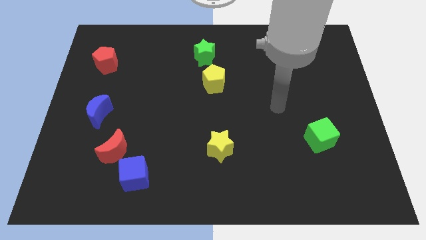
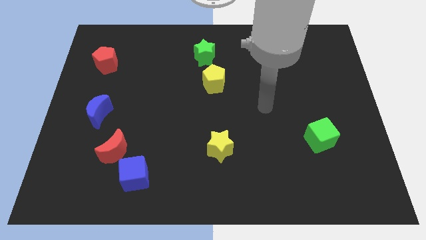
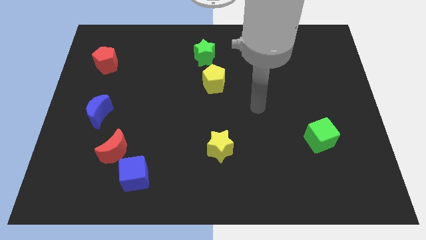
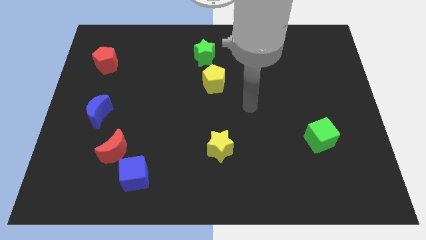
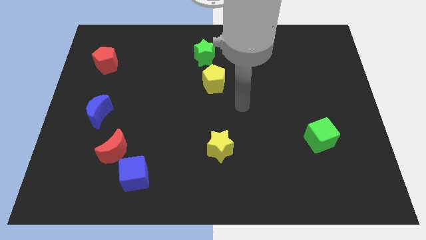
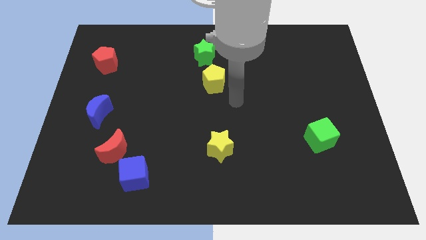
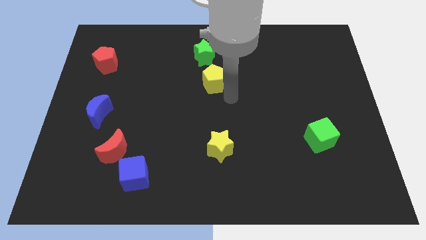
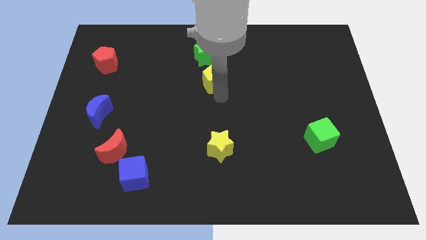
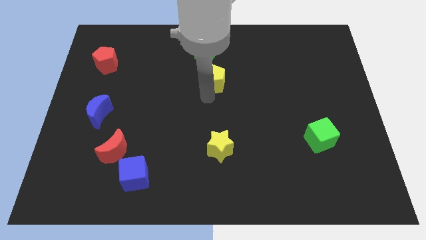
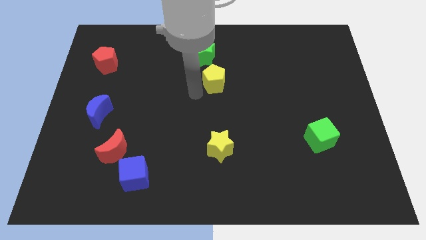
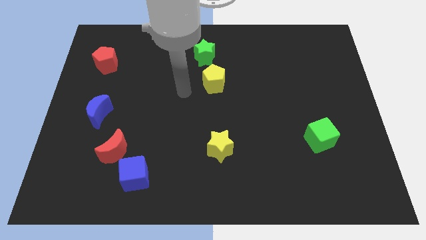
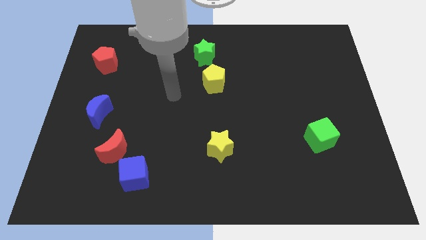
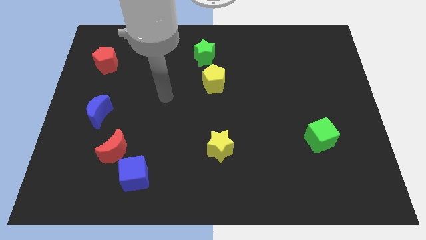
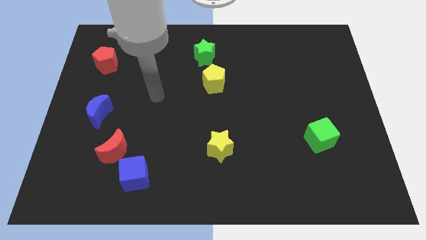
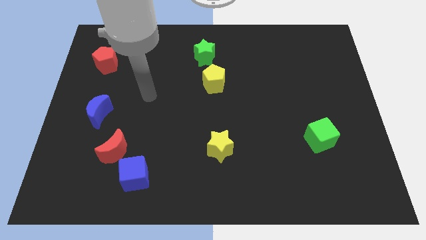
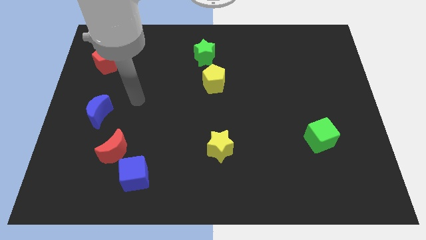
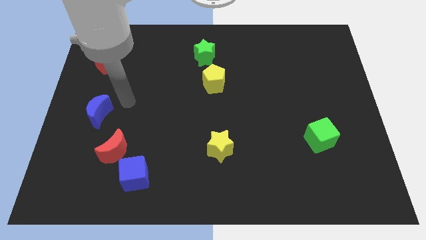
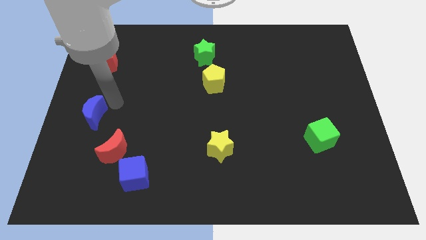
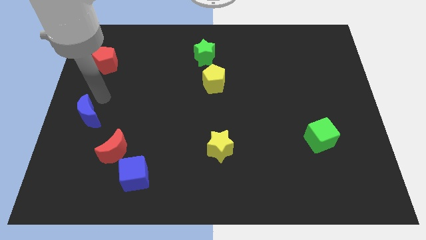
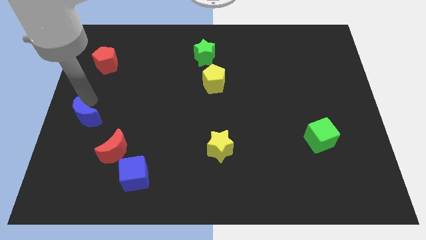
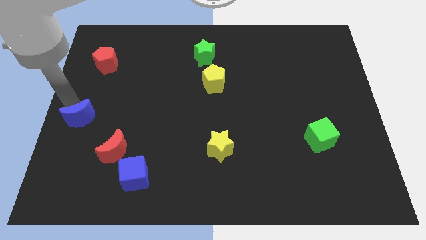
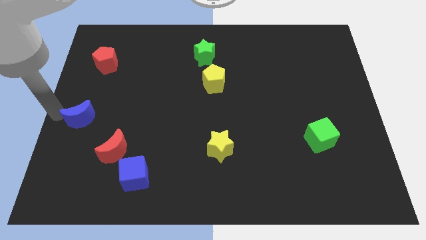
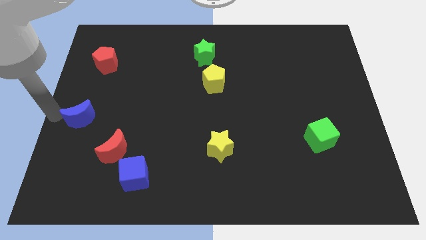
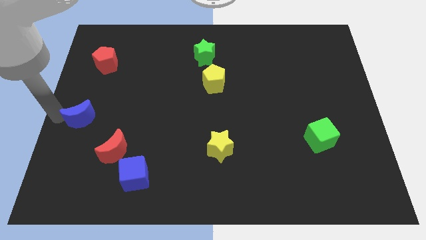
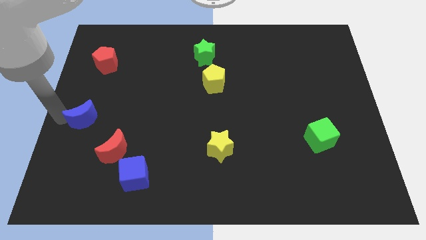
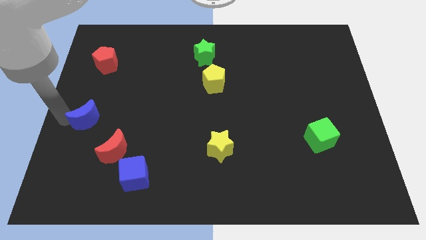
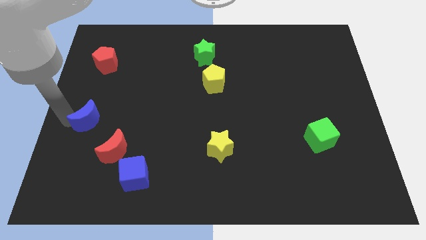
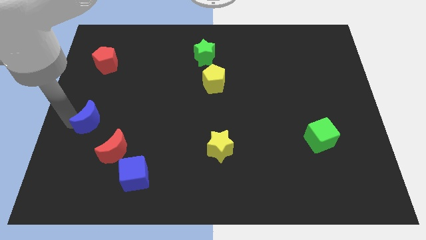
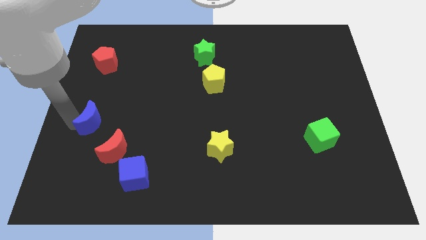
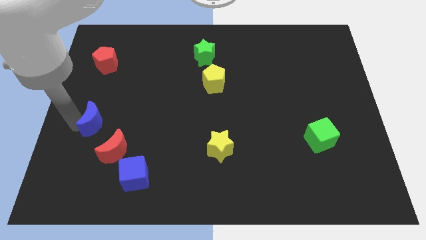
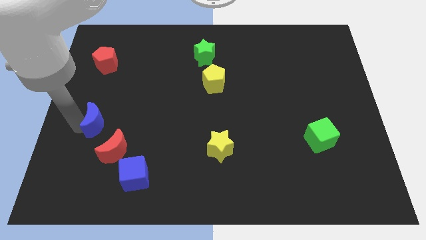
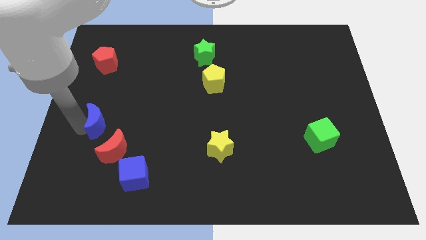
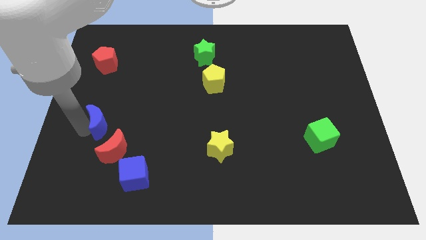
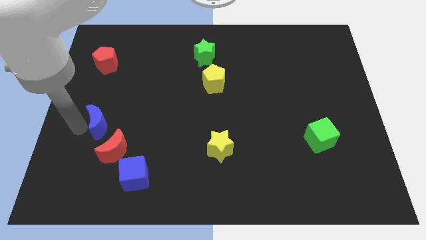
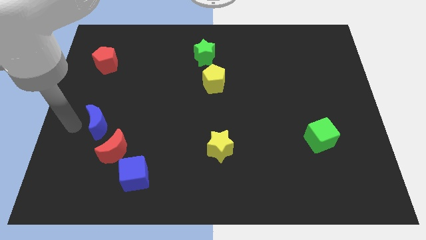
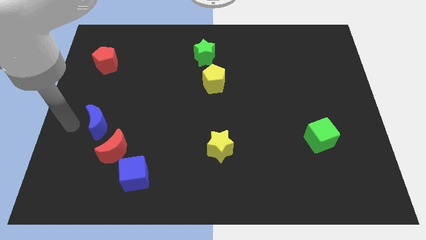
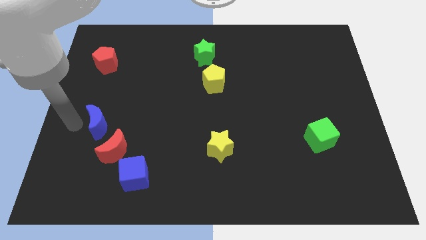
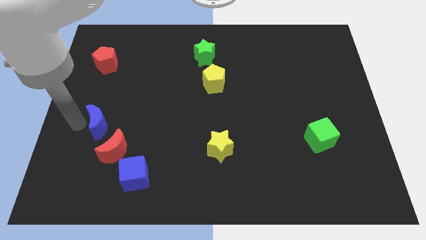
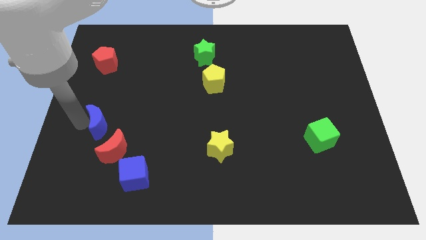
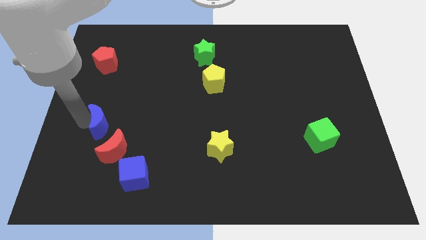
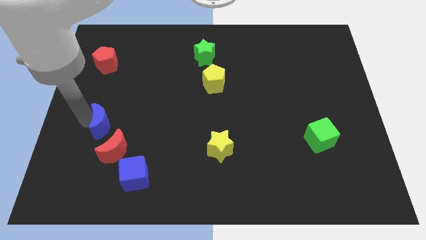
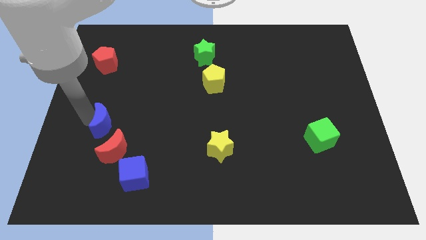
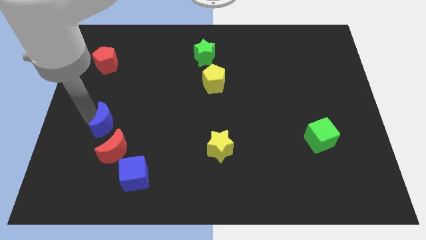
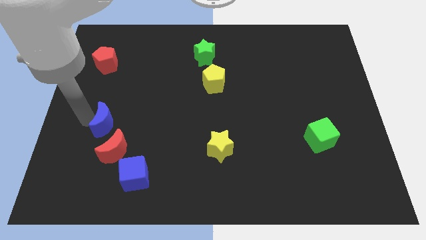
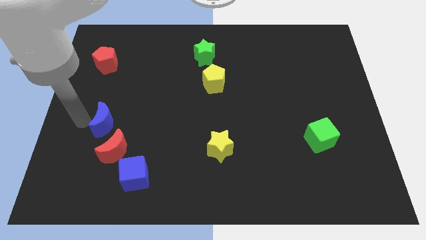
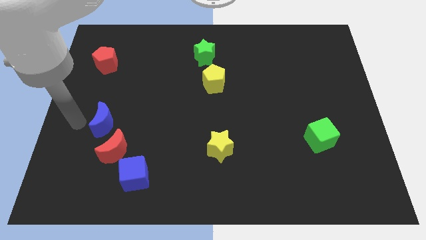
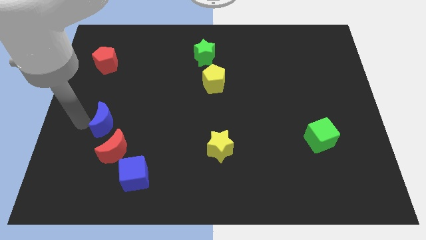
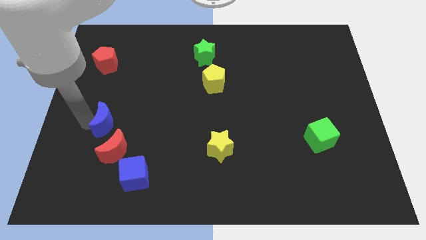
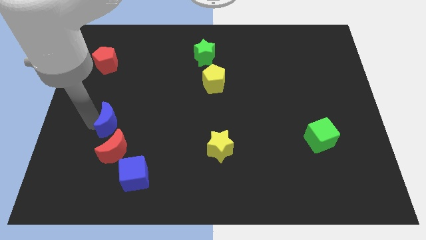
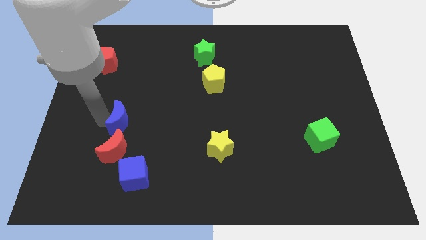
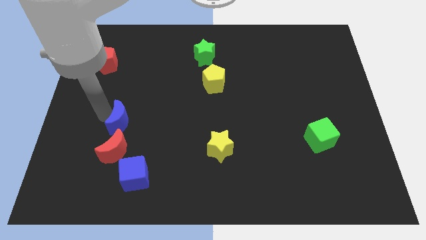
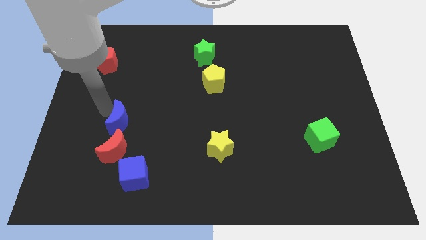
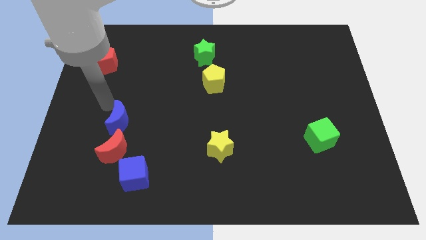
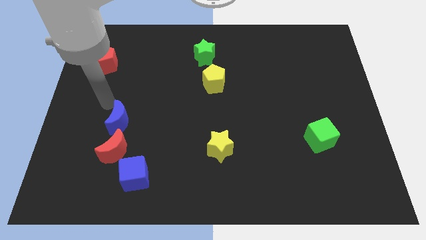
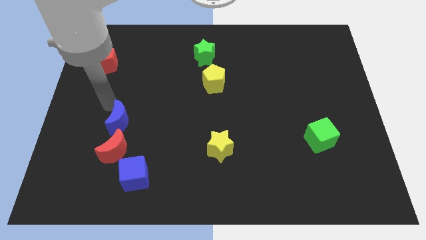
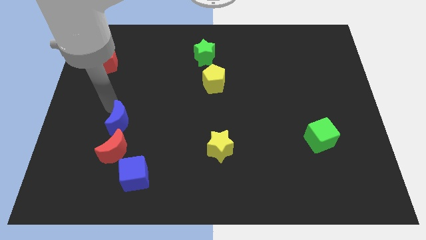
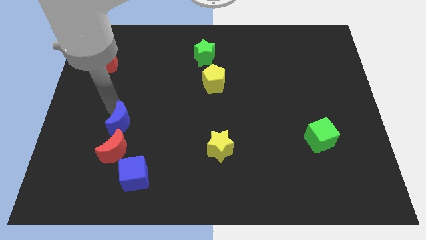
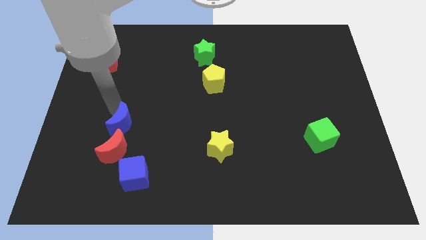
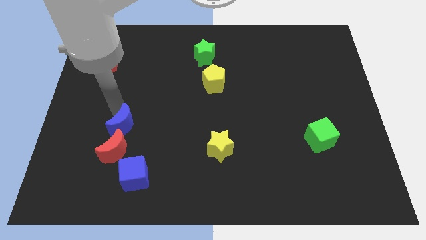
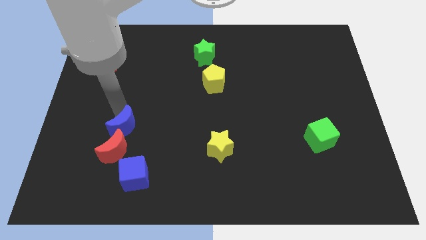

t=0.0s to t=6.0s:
slide the blue moon a bit diagonally down and right

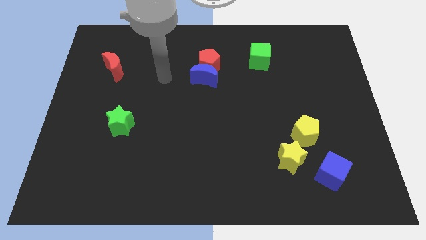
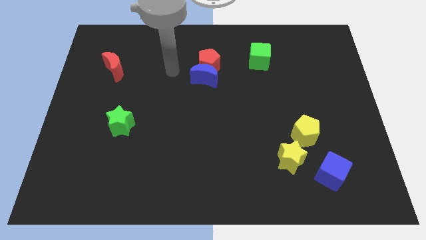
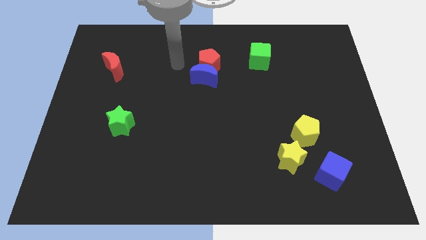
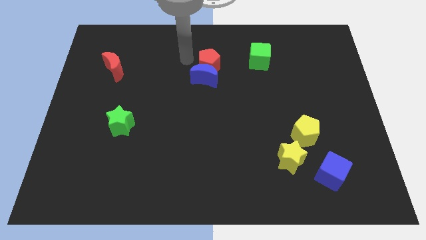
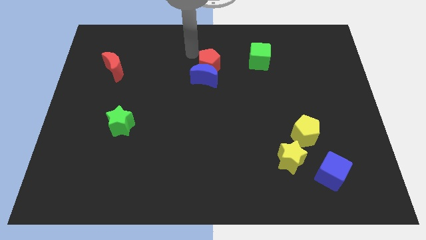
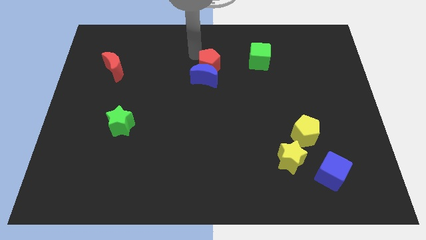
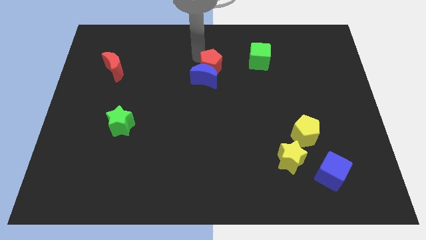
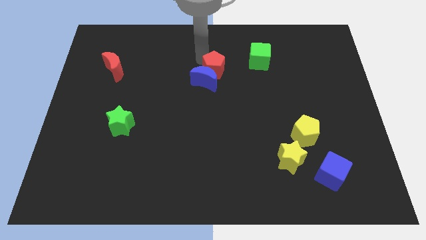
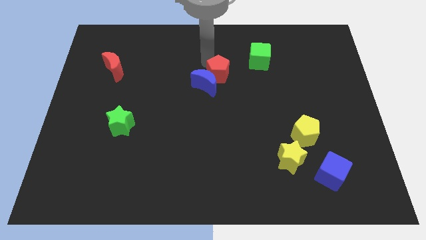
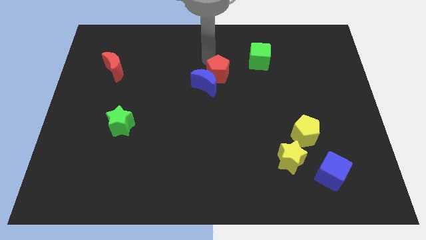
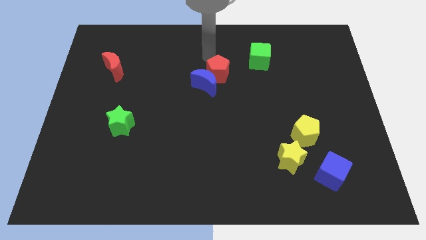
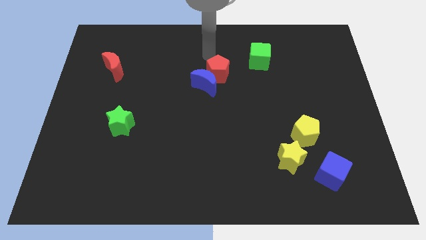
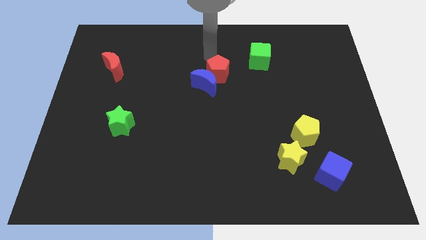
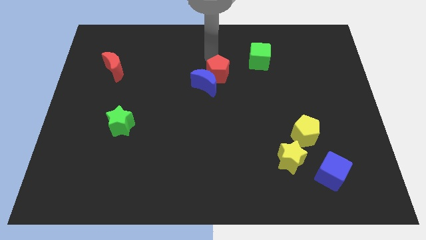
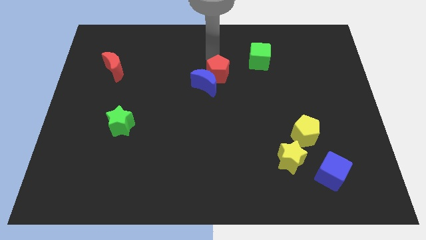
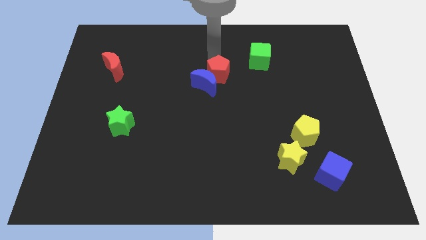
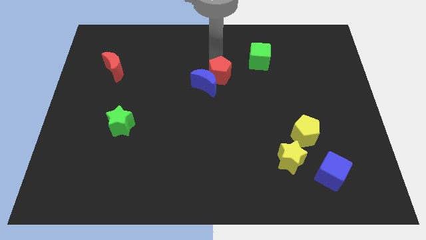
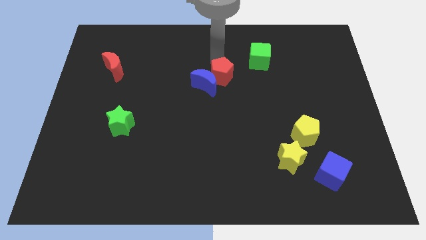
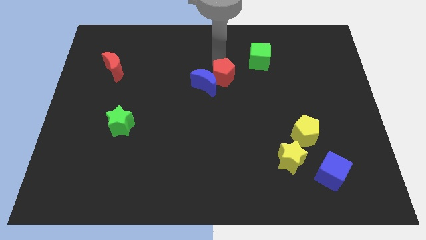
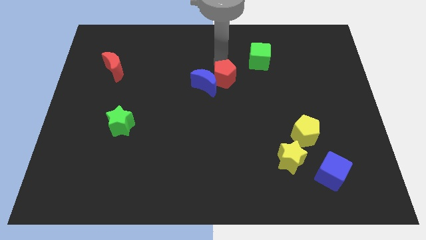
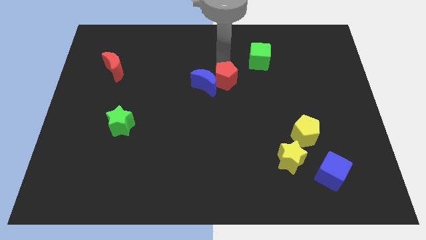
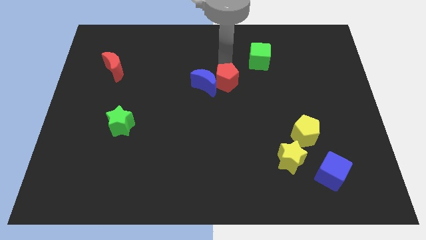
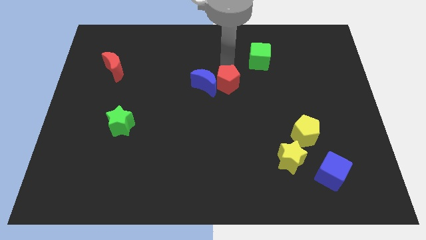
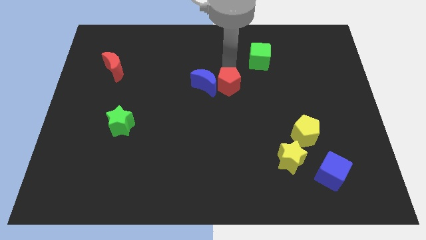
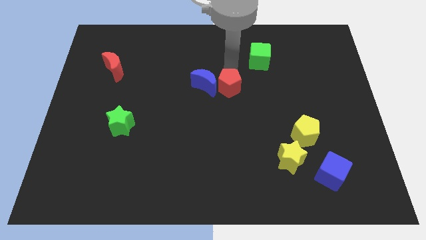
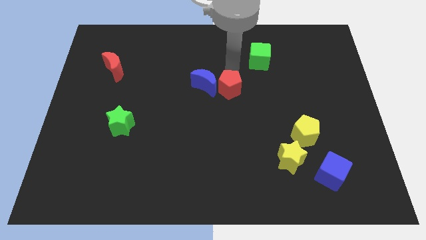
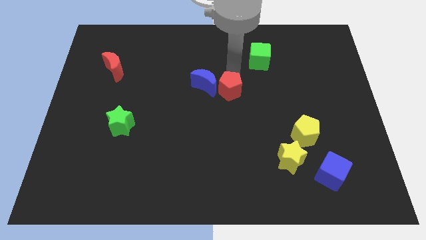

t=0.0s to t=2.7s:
slightly move the red pentagon down
